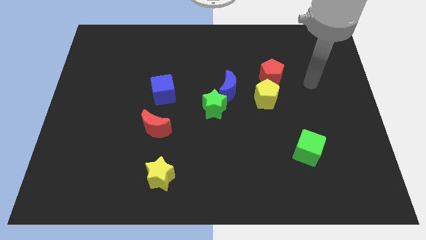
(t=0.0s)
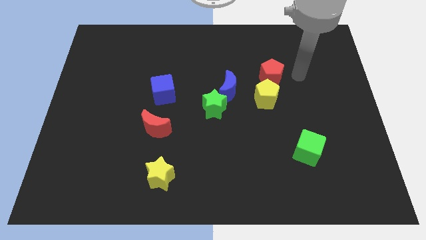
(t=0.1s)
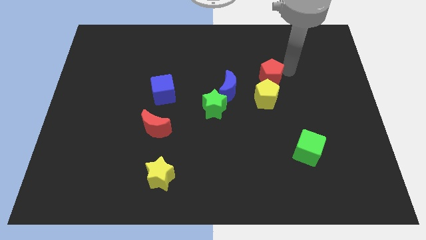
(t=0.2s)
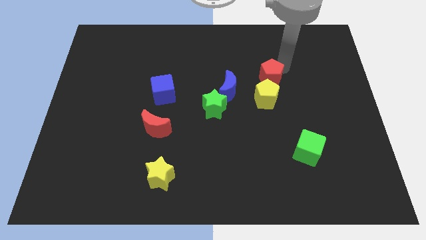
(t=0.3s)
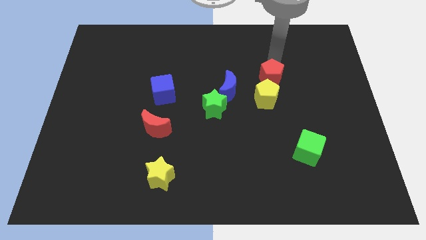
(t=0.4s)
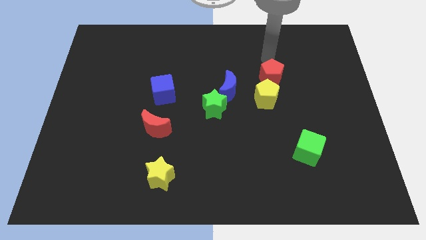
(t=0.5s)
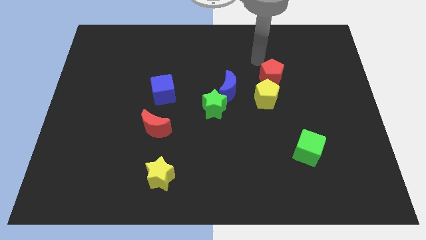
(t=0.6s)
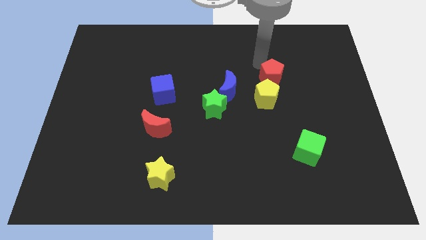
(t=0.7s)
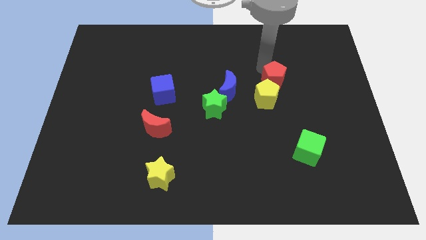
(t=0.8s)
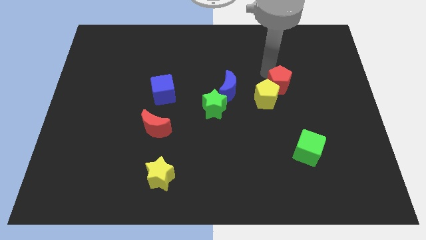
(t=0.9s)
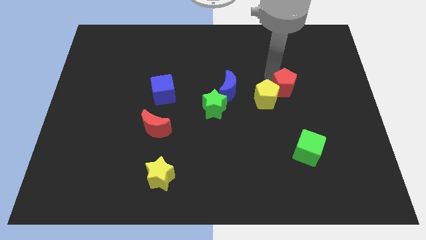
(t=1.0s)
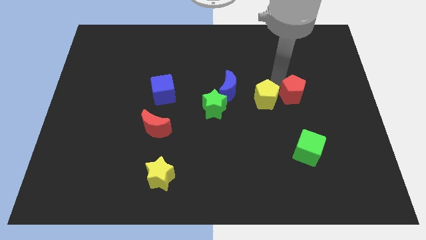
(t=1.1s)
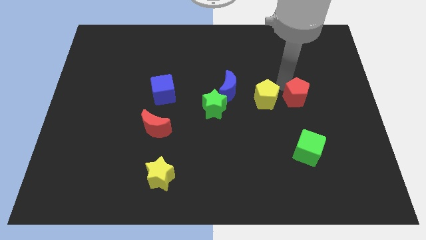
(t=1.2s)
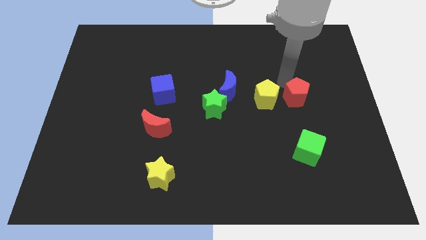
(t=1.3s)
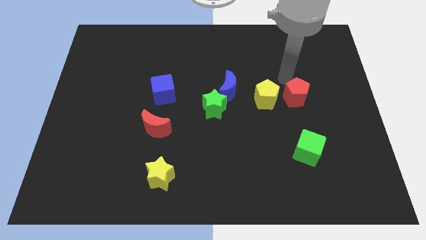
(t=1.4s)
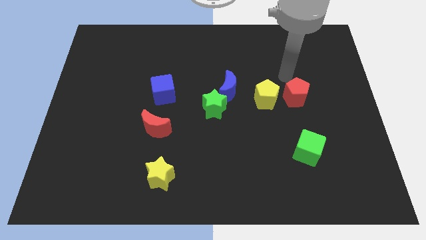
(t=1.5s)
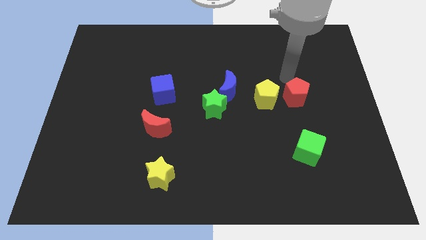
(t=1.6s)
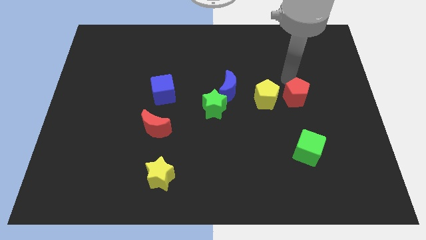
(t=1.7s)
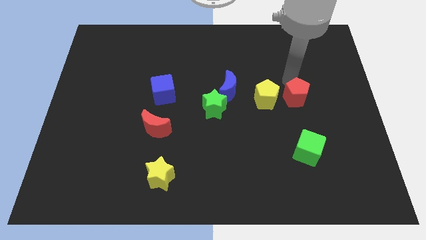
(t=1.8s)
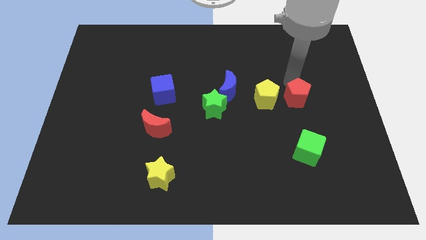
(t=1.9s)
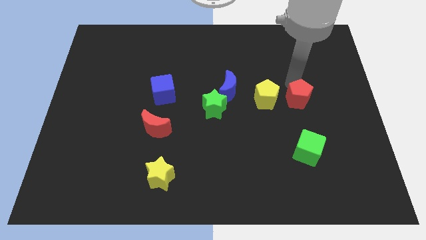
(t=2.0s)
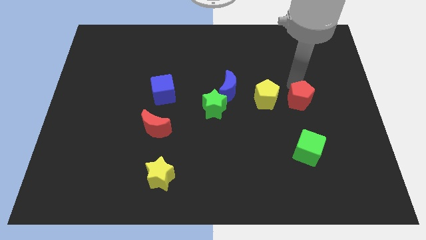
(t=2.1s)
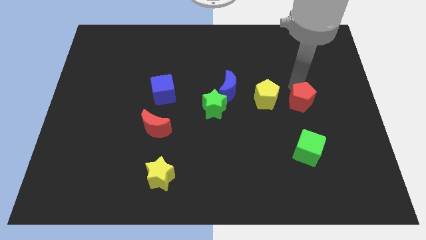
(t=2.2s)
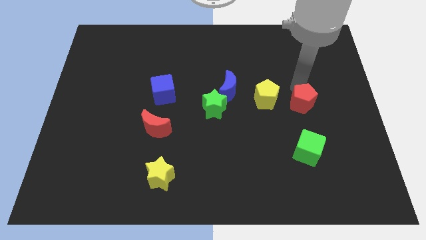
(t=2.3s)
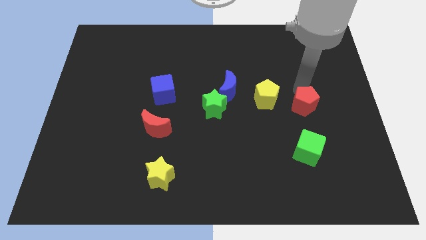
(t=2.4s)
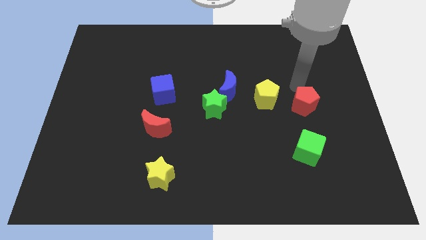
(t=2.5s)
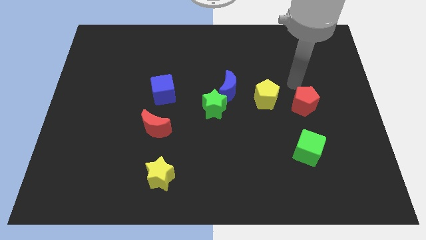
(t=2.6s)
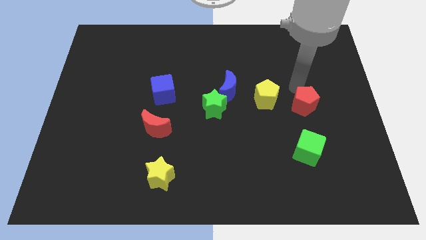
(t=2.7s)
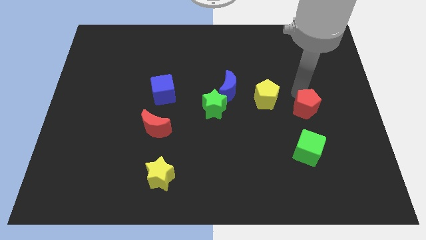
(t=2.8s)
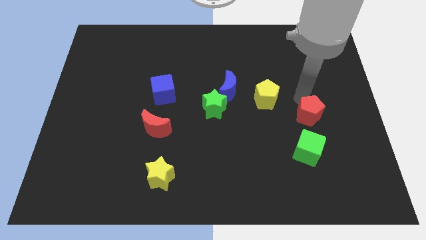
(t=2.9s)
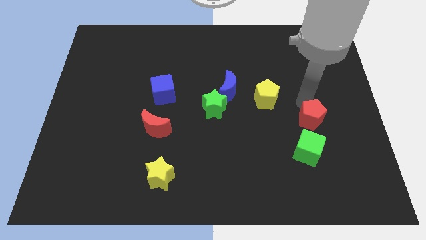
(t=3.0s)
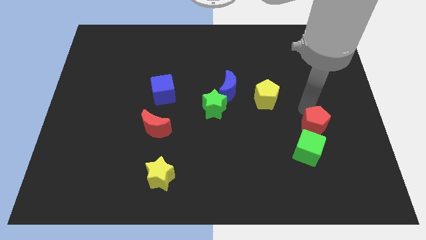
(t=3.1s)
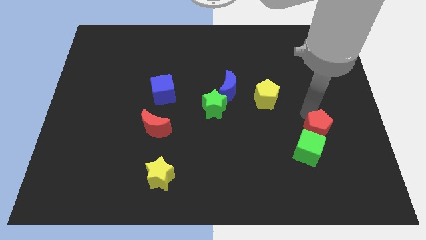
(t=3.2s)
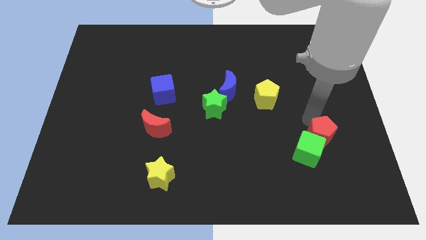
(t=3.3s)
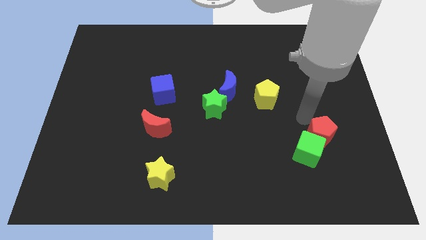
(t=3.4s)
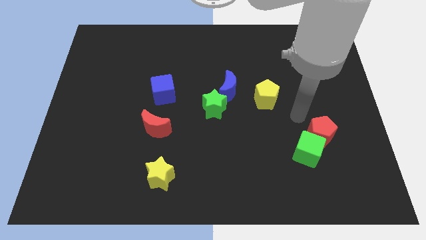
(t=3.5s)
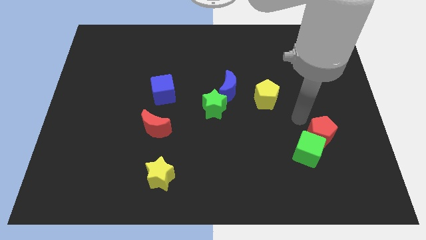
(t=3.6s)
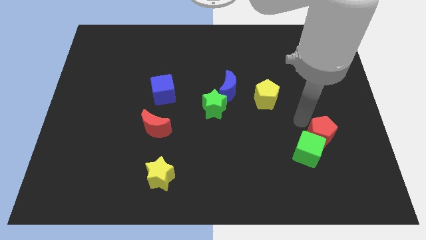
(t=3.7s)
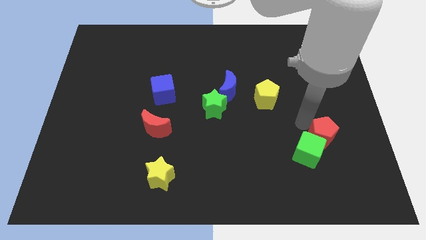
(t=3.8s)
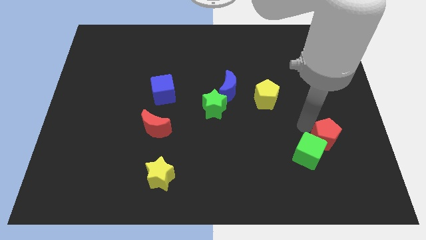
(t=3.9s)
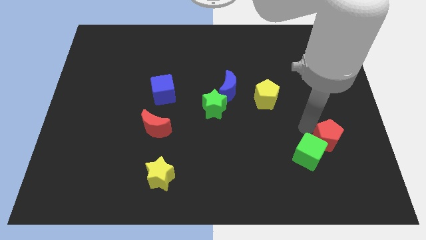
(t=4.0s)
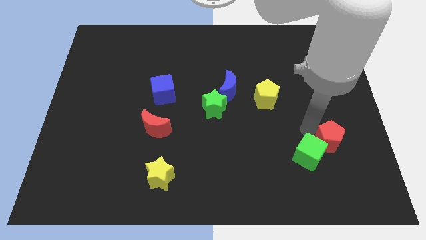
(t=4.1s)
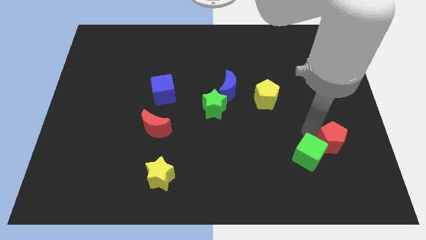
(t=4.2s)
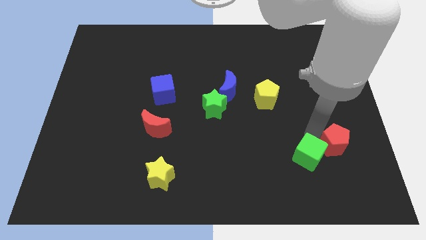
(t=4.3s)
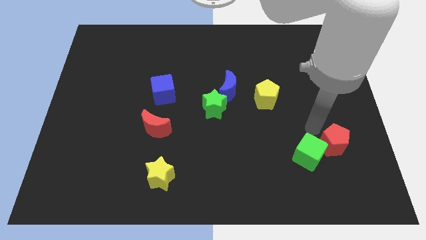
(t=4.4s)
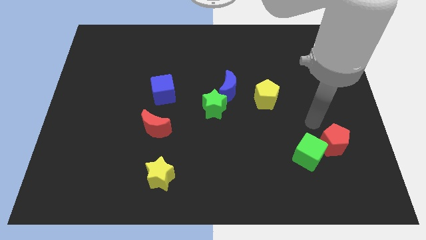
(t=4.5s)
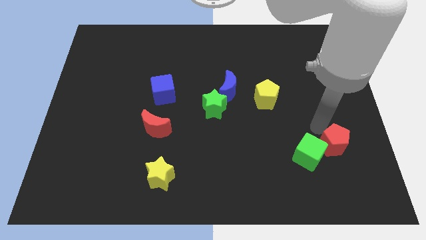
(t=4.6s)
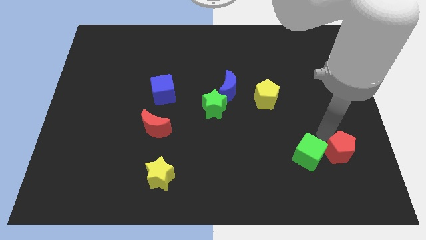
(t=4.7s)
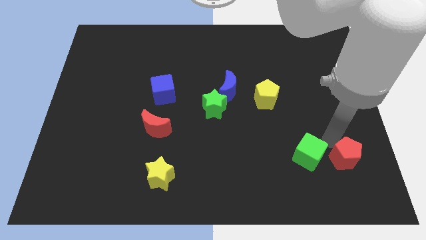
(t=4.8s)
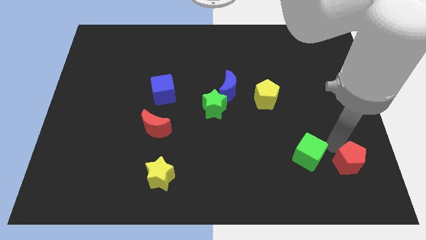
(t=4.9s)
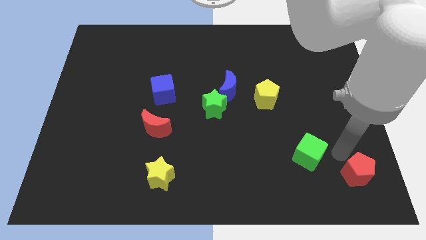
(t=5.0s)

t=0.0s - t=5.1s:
move the red pentagon to the lower right corner
